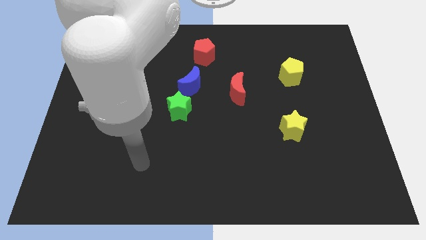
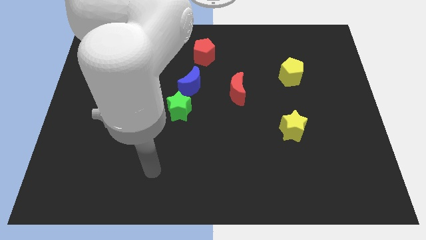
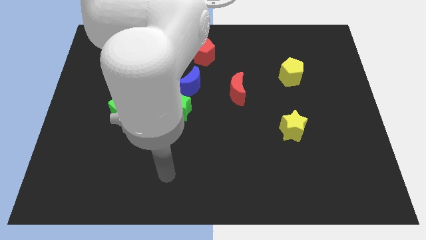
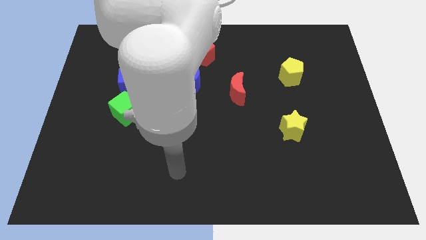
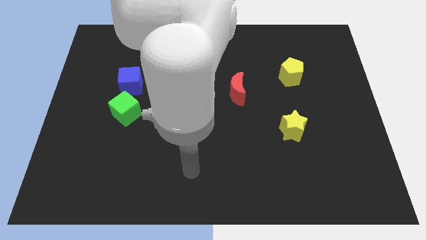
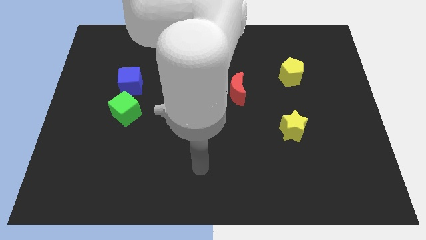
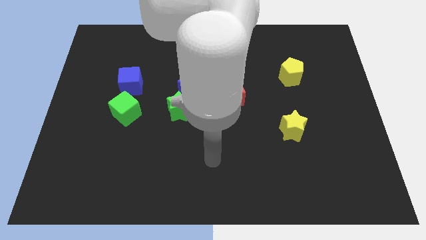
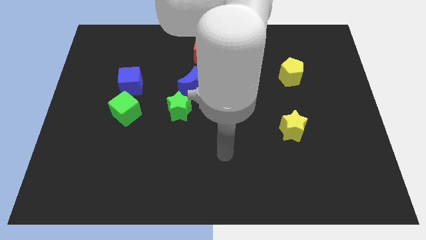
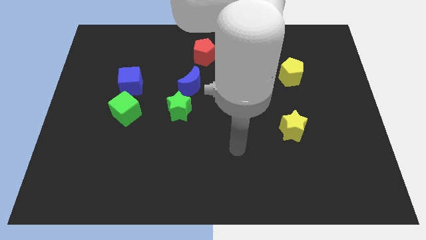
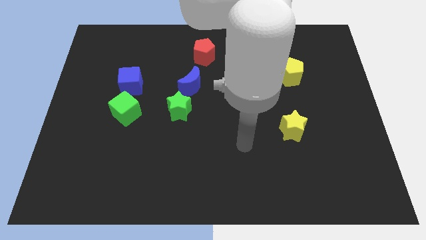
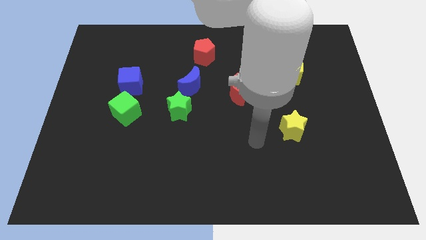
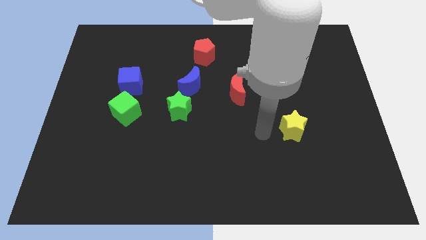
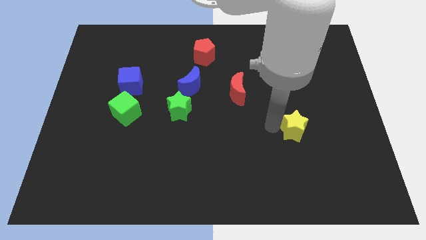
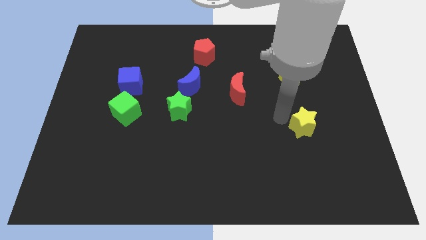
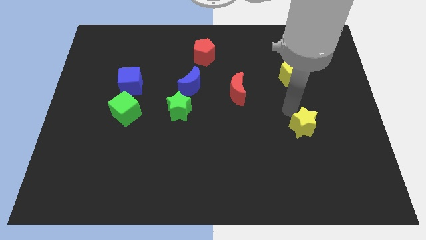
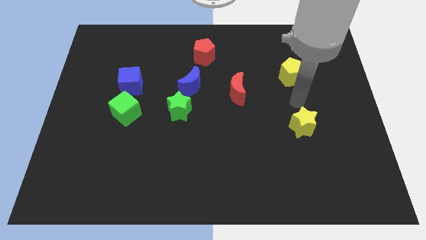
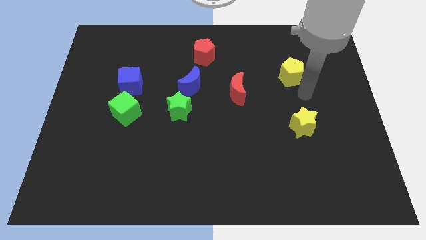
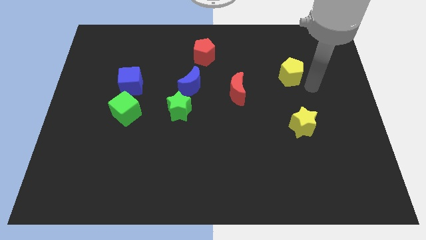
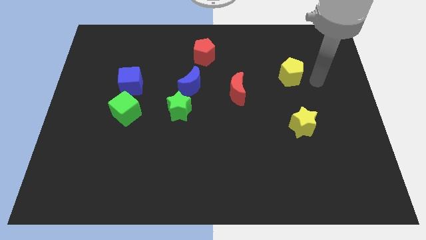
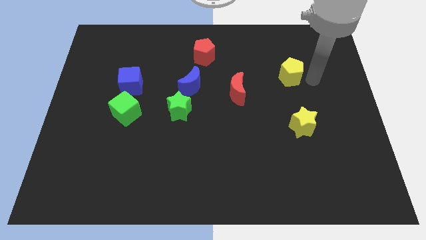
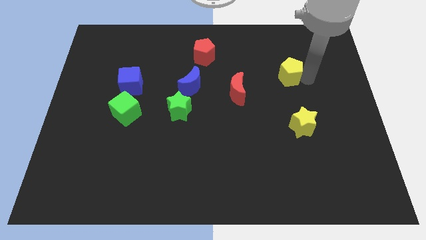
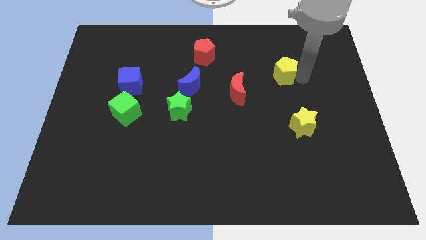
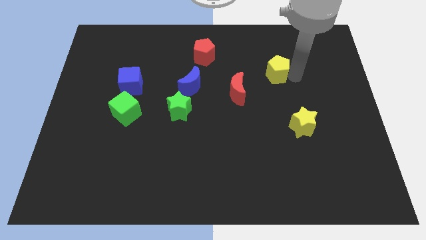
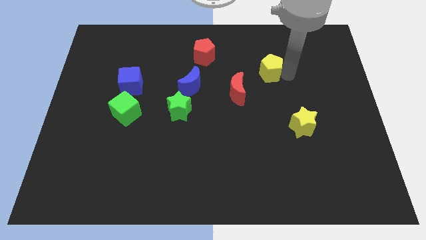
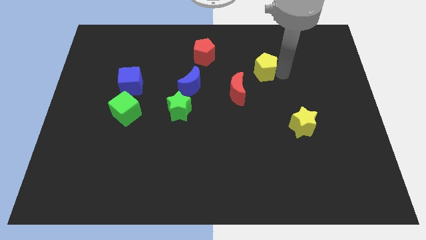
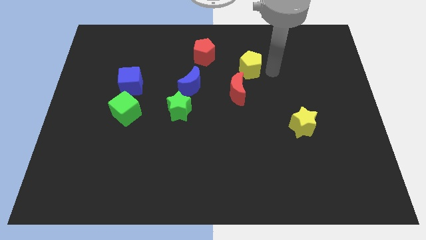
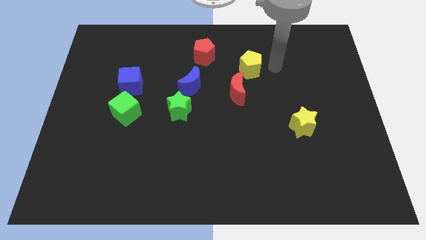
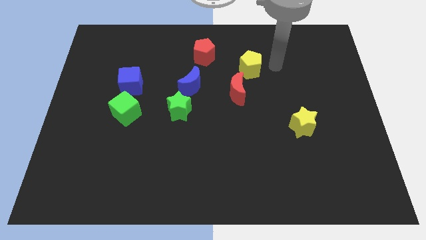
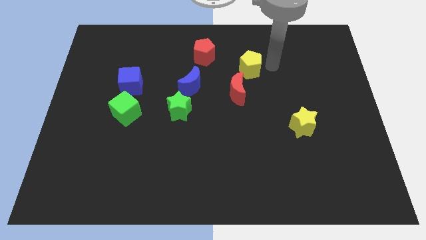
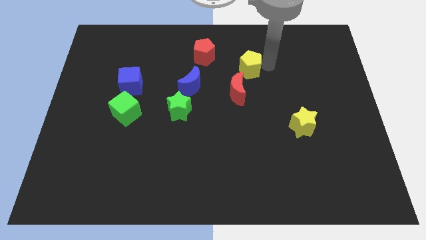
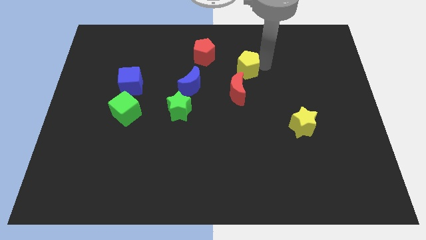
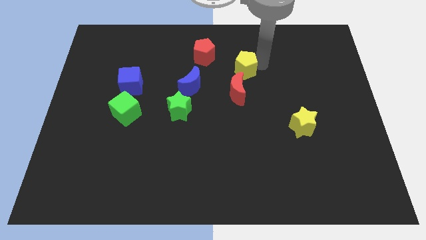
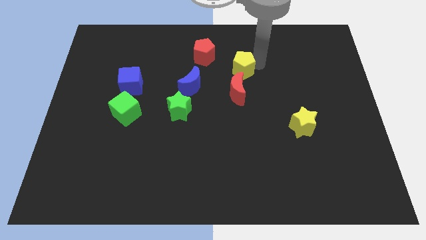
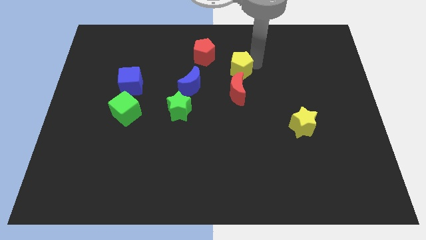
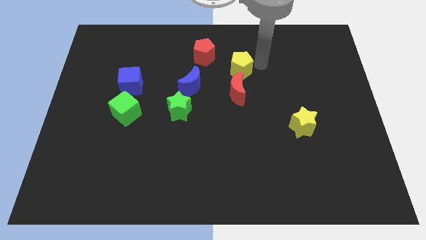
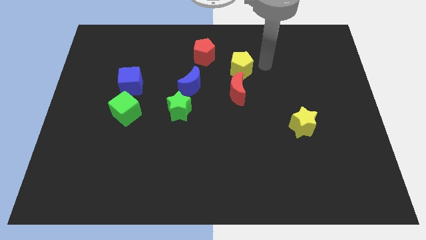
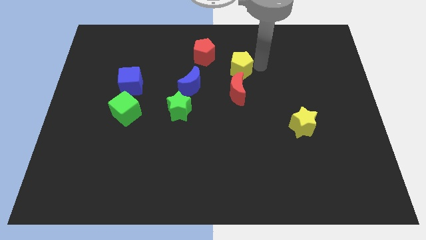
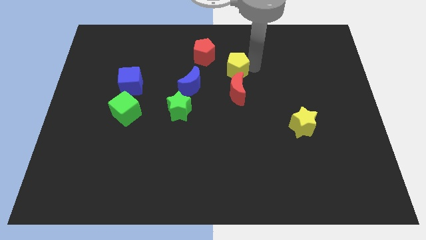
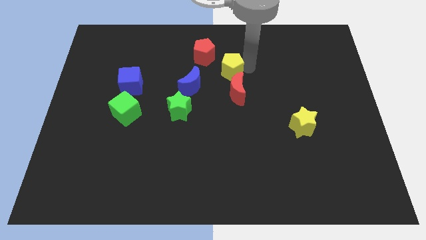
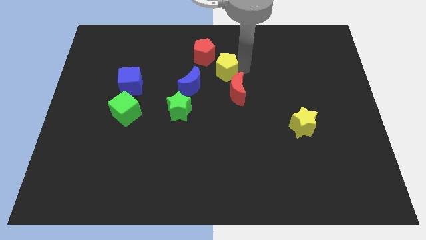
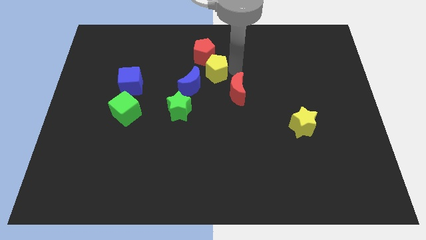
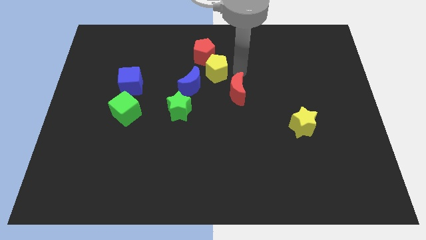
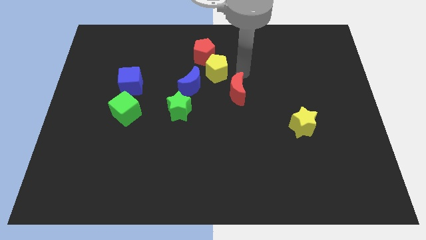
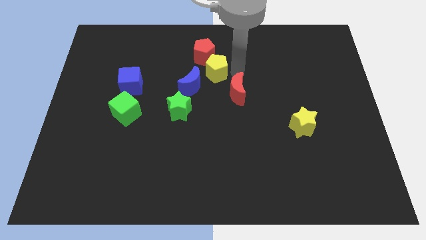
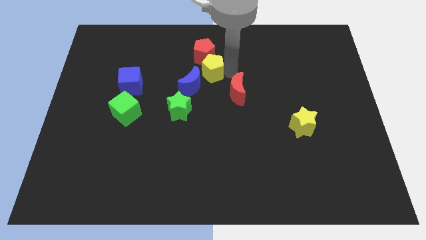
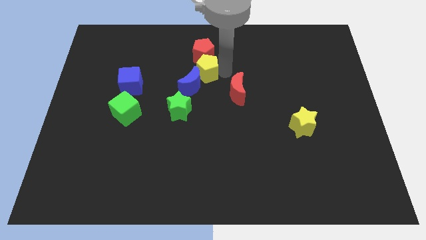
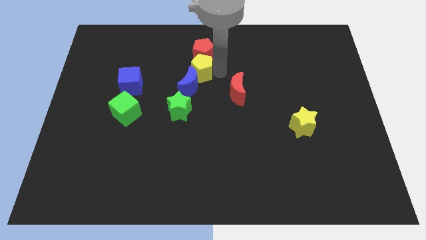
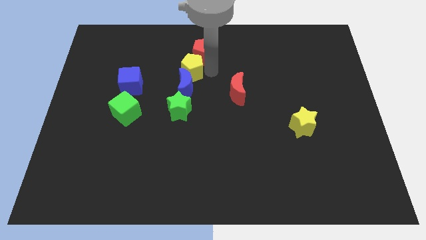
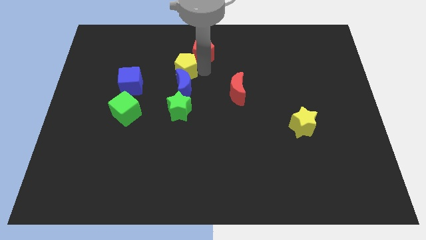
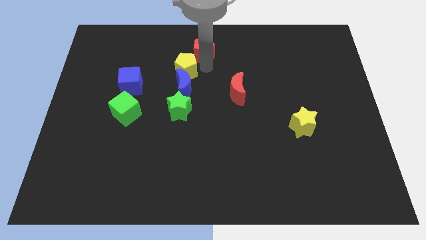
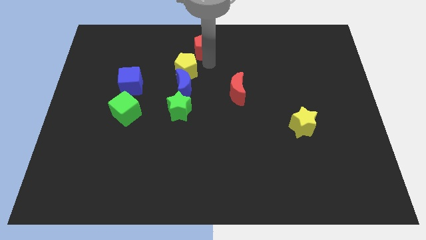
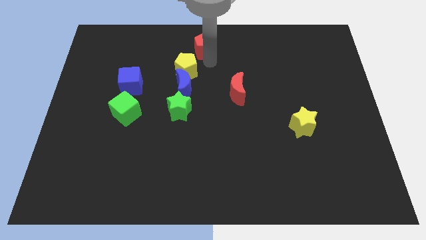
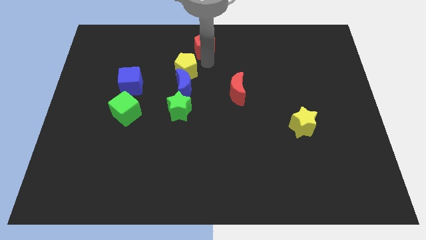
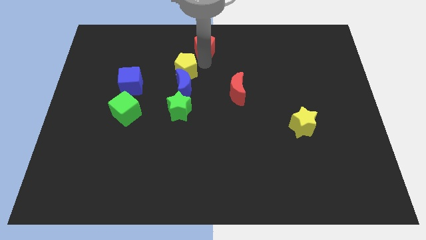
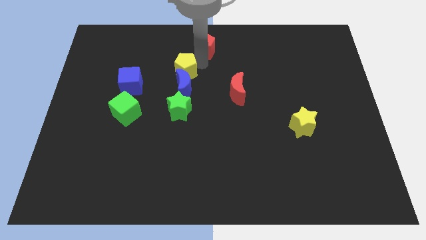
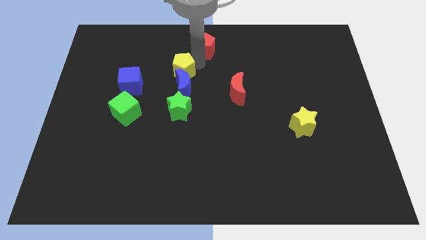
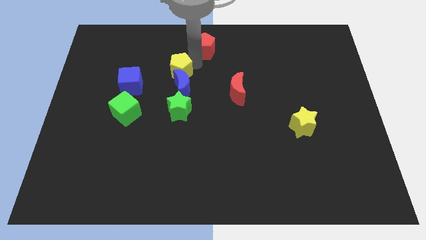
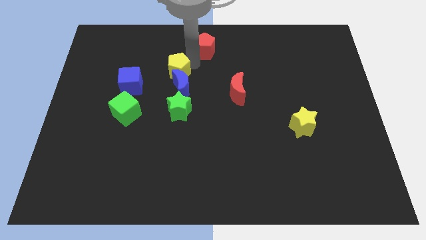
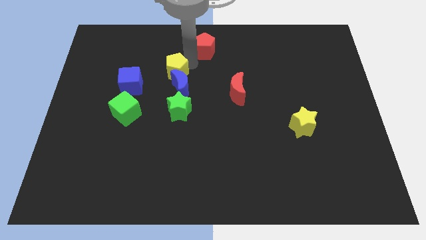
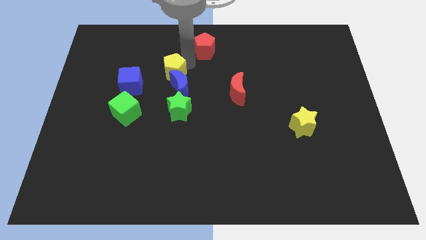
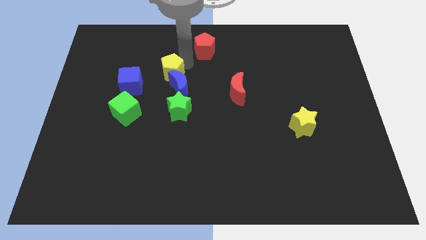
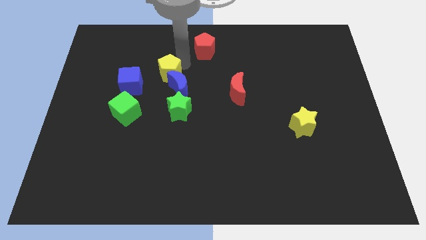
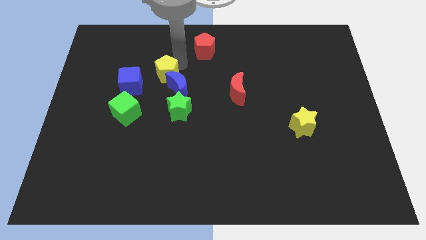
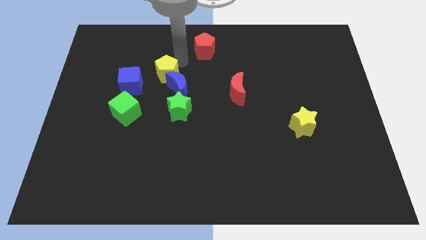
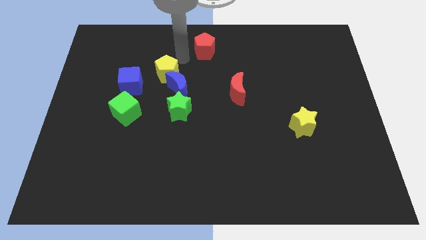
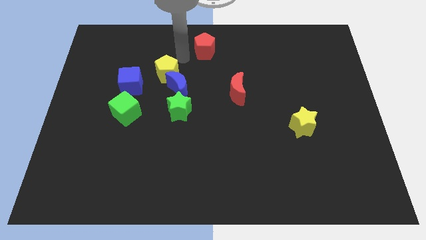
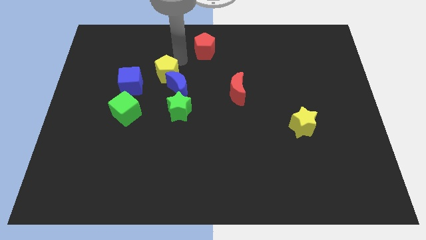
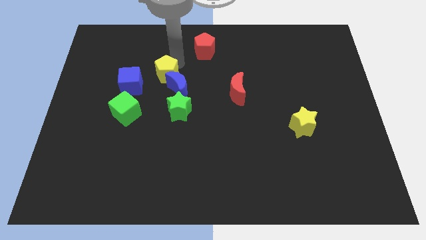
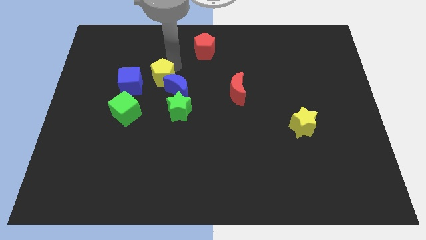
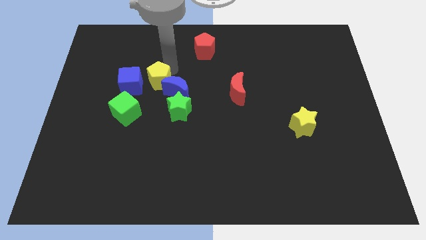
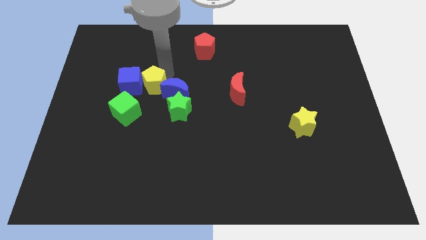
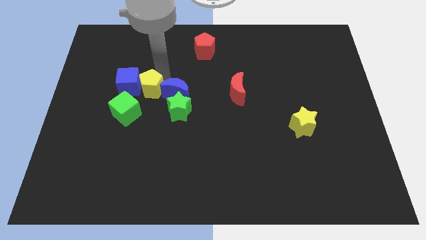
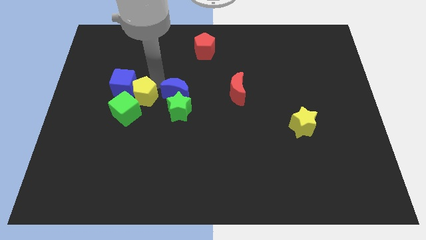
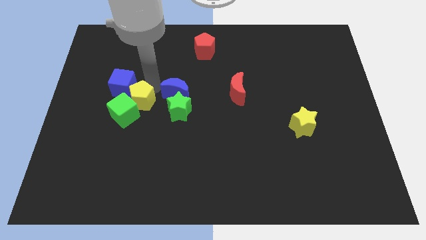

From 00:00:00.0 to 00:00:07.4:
put the yellow pentagon towards the green cube

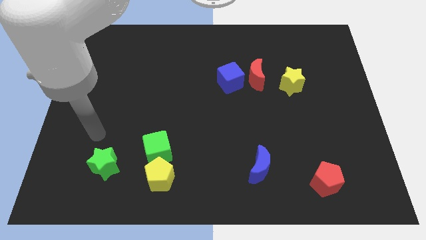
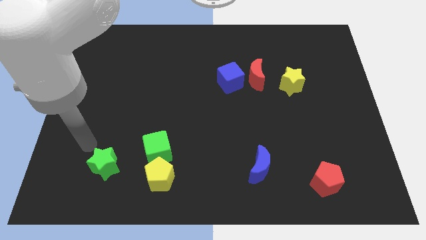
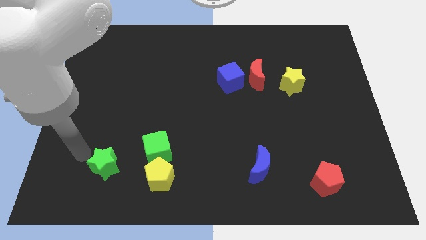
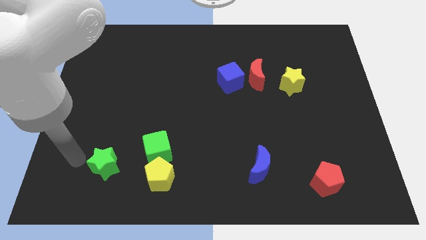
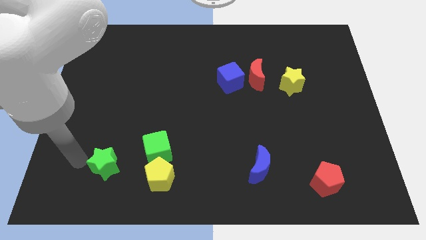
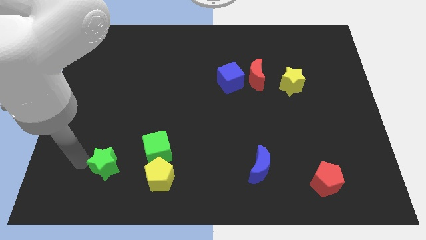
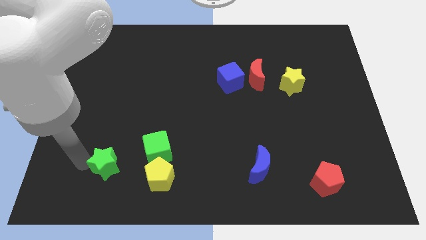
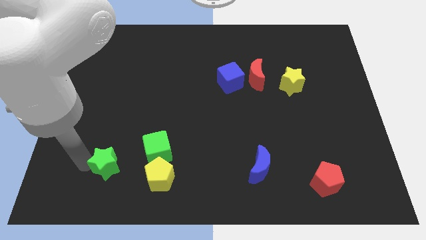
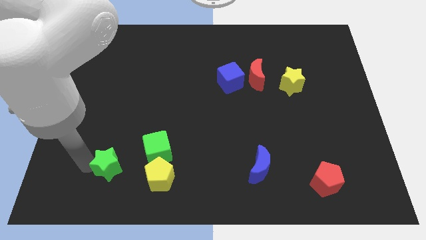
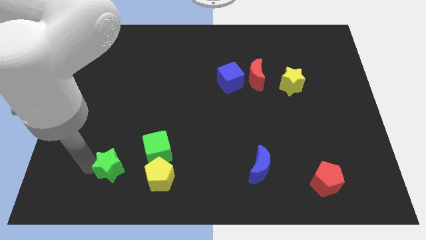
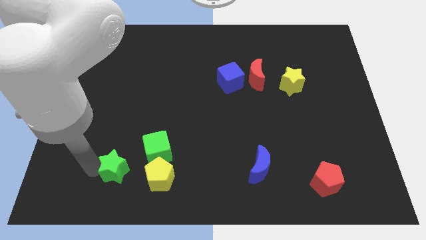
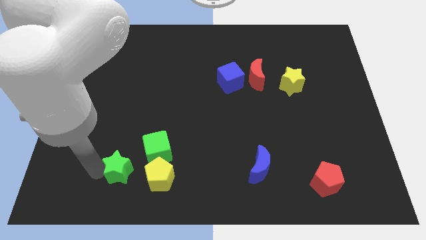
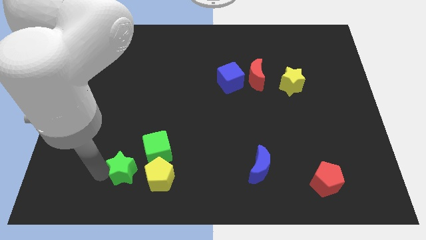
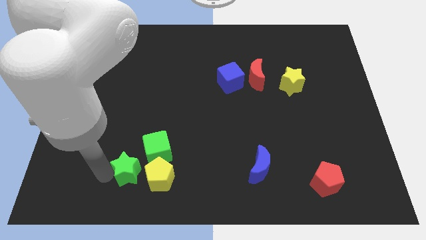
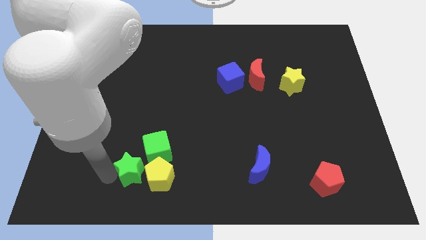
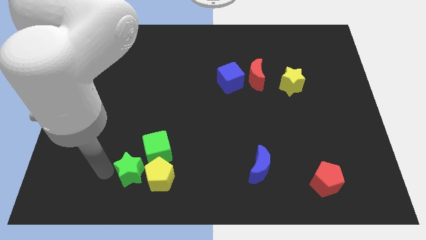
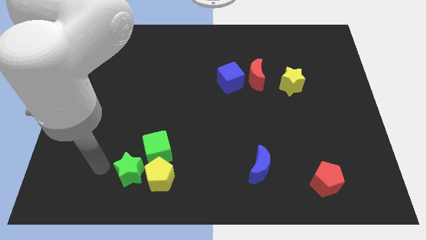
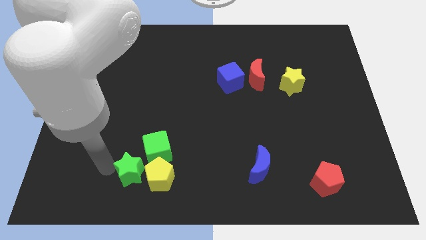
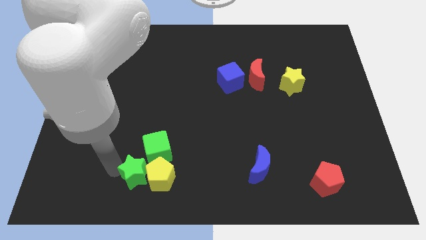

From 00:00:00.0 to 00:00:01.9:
move the green star close to the yellow pentagon
